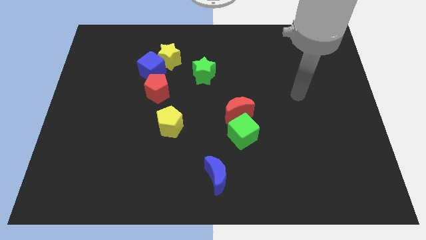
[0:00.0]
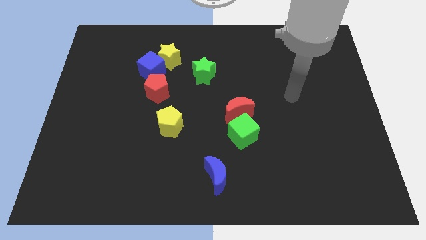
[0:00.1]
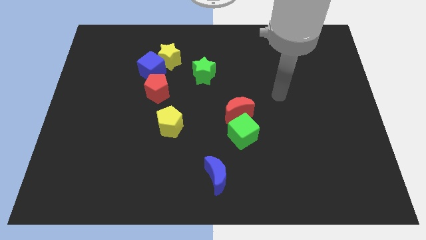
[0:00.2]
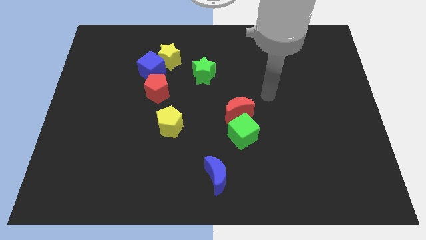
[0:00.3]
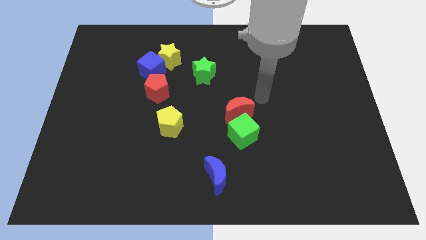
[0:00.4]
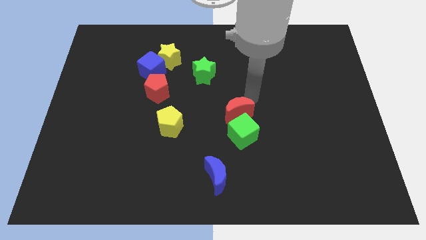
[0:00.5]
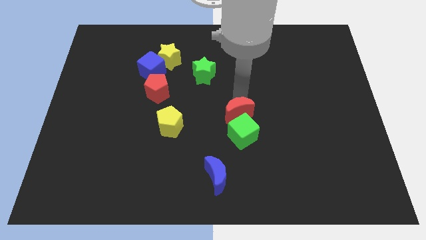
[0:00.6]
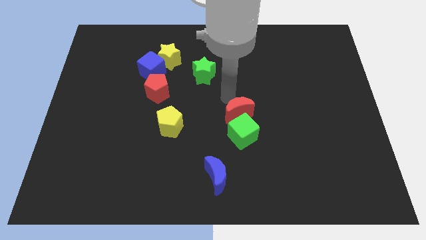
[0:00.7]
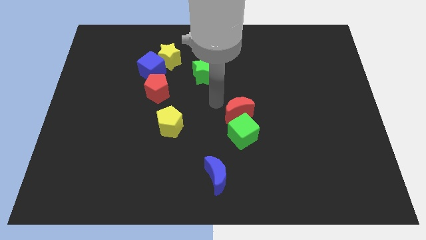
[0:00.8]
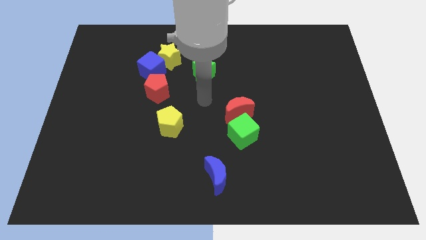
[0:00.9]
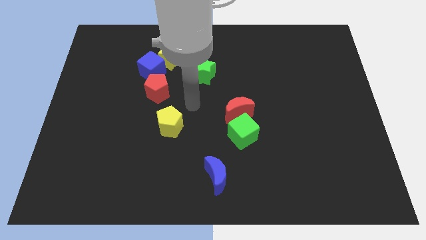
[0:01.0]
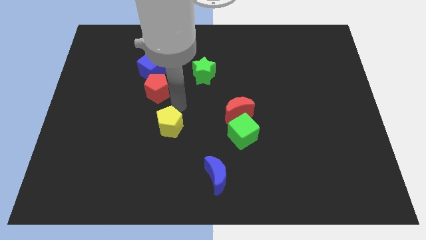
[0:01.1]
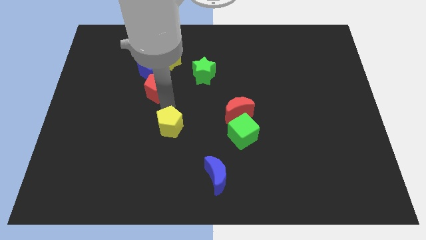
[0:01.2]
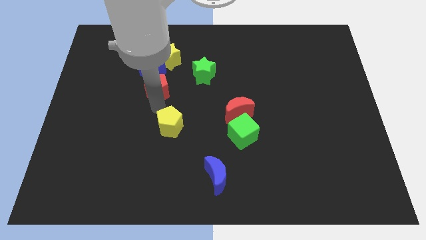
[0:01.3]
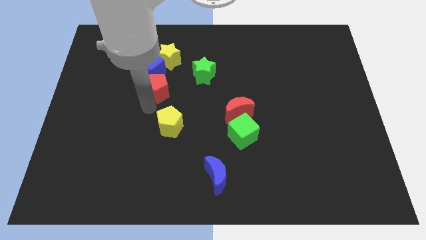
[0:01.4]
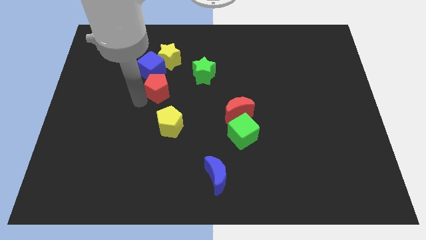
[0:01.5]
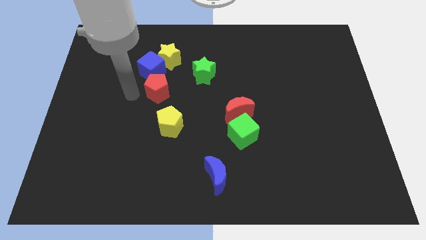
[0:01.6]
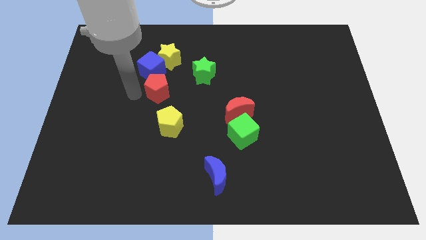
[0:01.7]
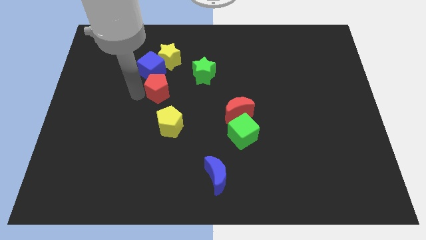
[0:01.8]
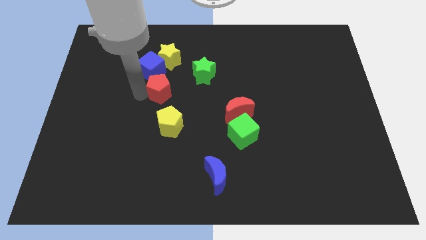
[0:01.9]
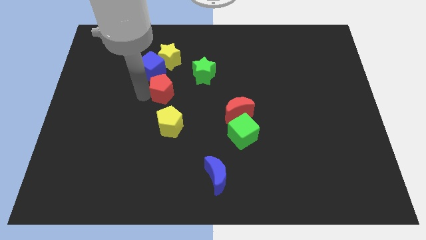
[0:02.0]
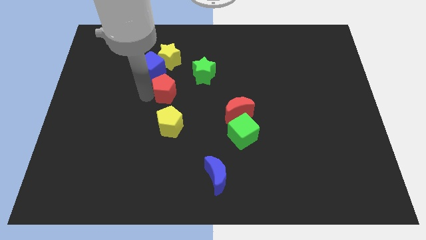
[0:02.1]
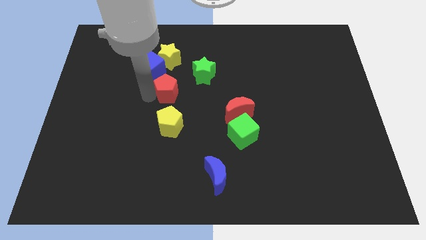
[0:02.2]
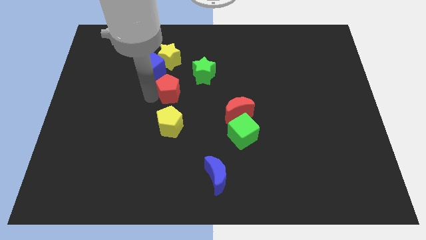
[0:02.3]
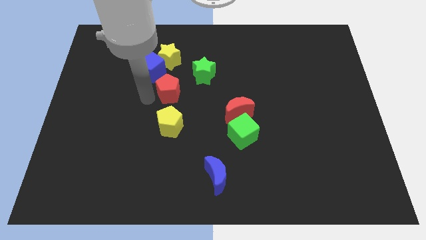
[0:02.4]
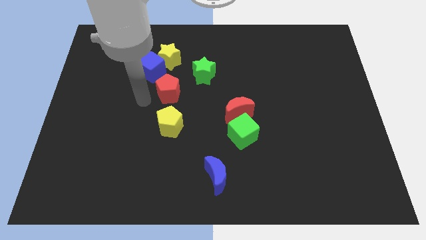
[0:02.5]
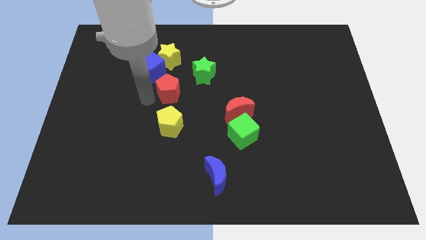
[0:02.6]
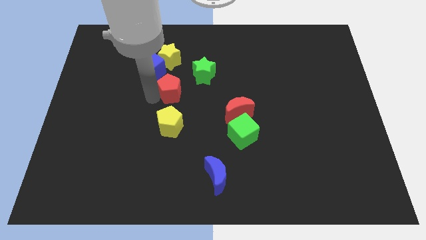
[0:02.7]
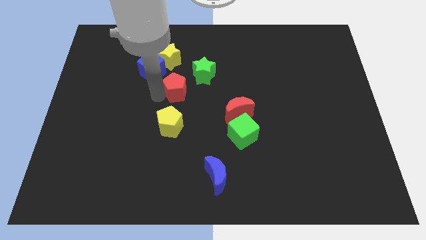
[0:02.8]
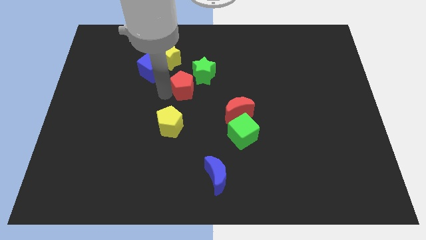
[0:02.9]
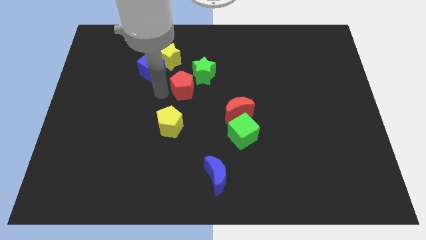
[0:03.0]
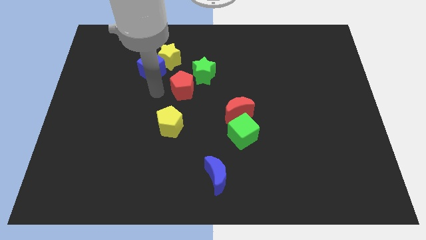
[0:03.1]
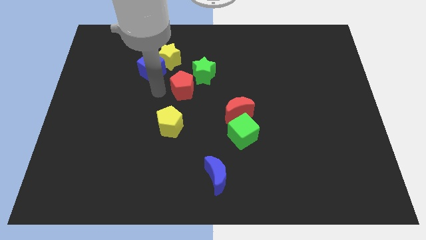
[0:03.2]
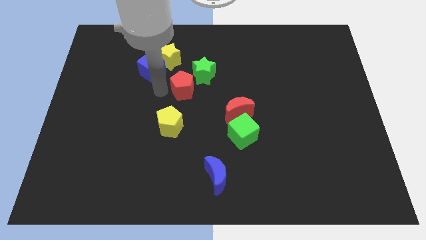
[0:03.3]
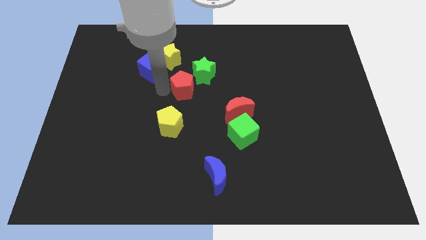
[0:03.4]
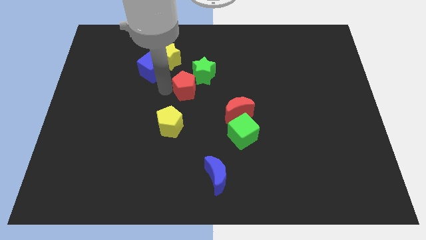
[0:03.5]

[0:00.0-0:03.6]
slightly slide the red pentagon right

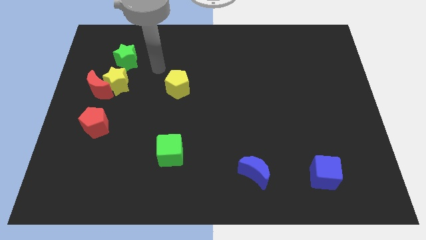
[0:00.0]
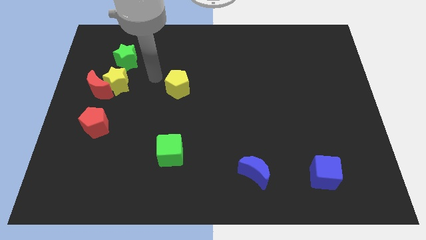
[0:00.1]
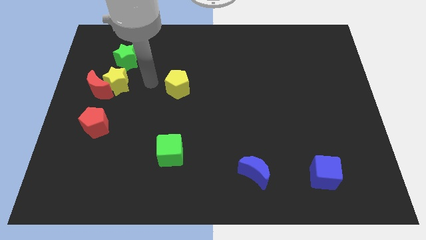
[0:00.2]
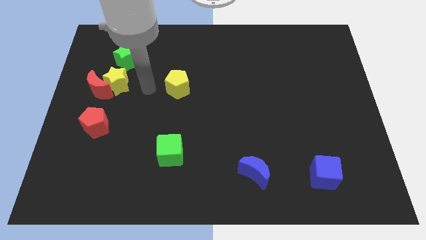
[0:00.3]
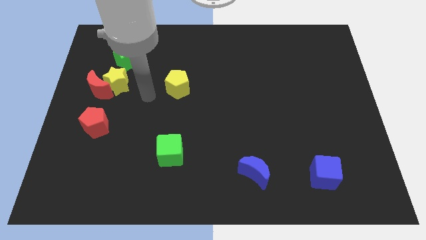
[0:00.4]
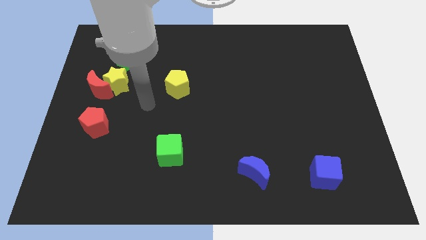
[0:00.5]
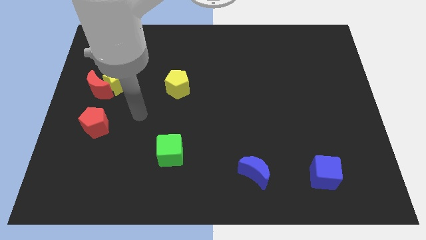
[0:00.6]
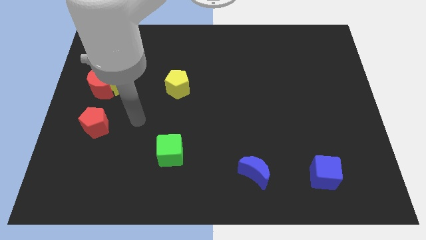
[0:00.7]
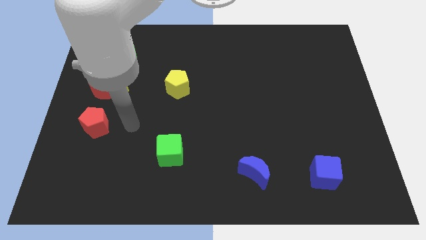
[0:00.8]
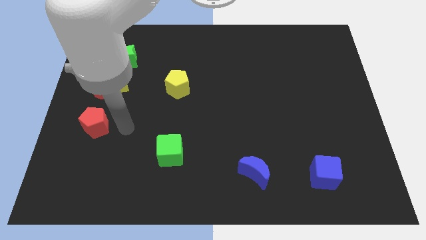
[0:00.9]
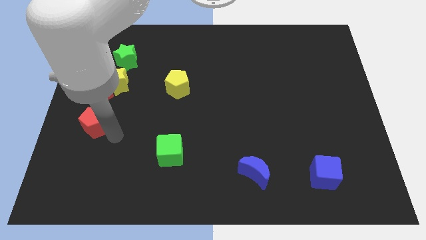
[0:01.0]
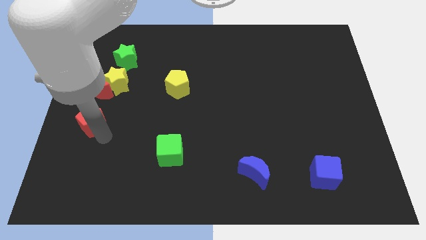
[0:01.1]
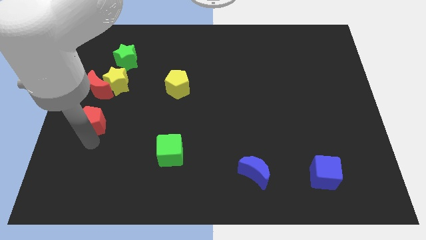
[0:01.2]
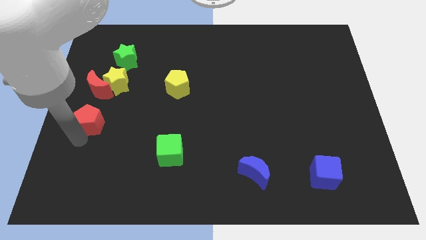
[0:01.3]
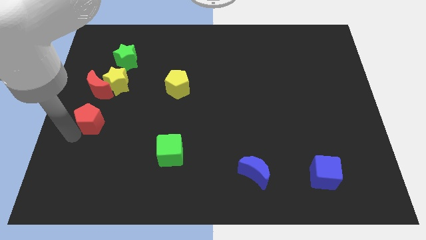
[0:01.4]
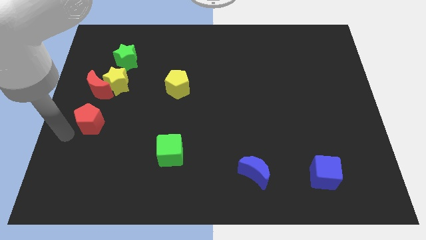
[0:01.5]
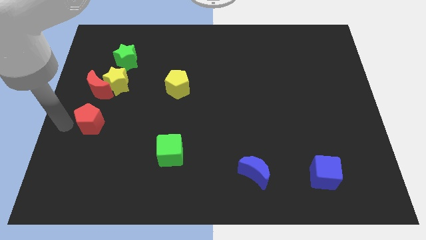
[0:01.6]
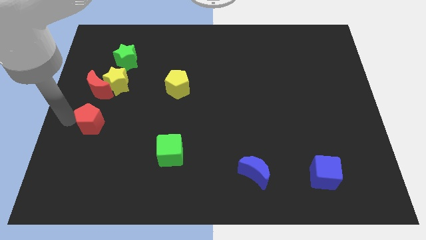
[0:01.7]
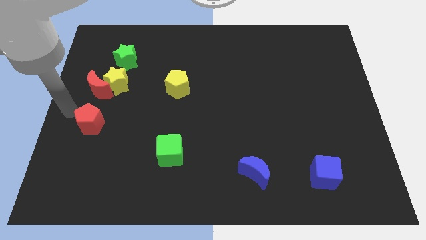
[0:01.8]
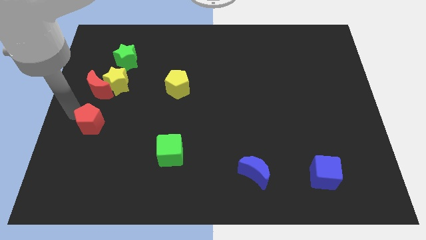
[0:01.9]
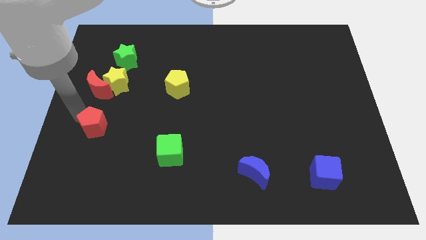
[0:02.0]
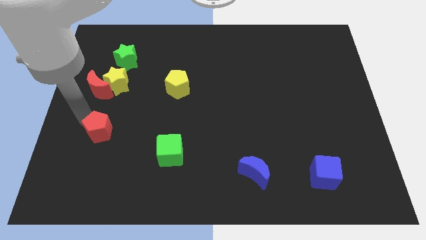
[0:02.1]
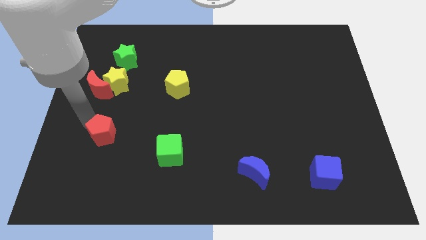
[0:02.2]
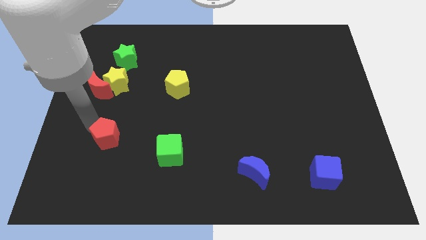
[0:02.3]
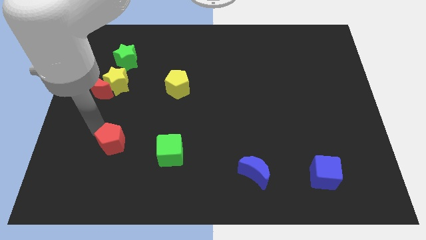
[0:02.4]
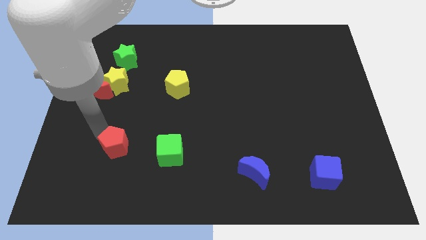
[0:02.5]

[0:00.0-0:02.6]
slide the red pentagon a bit down and then right

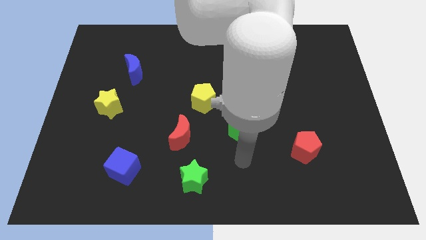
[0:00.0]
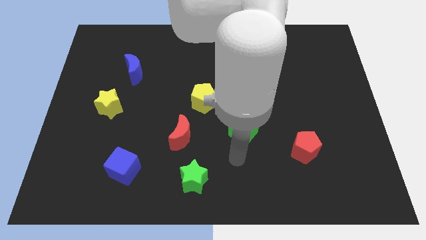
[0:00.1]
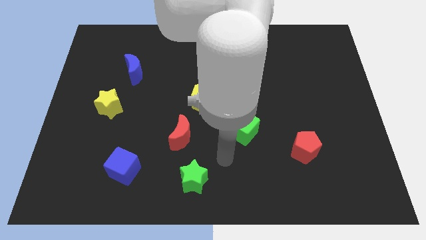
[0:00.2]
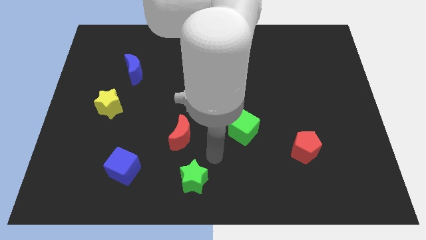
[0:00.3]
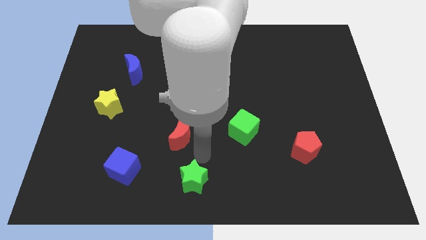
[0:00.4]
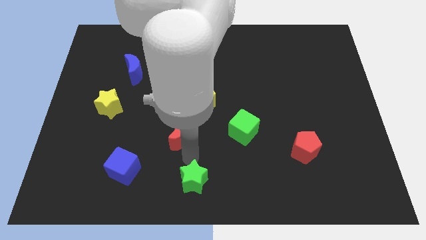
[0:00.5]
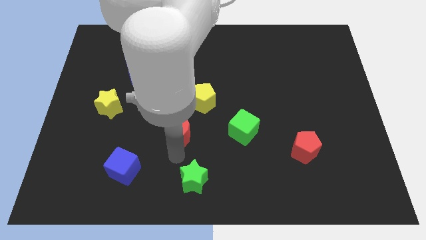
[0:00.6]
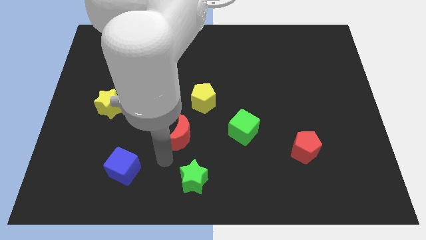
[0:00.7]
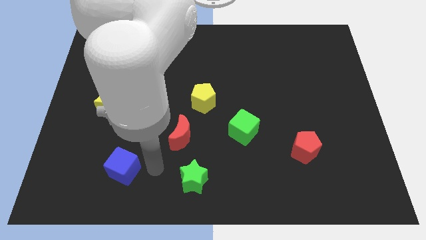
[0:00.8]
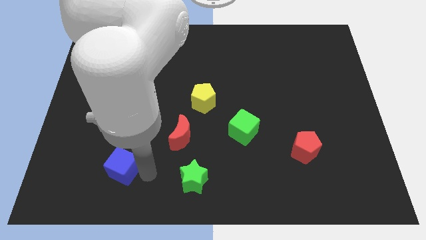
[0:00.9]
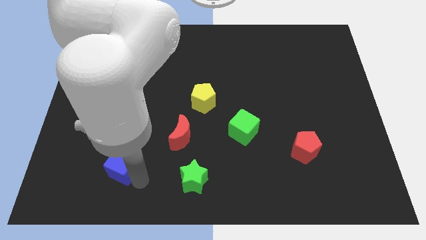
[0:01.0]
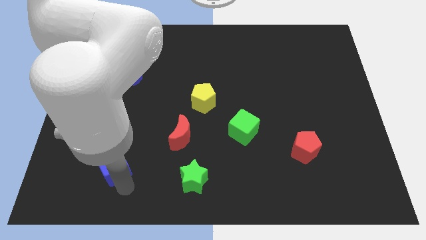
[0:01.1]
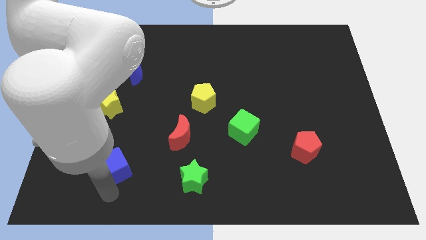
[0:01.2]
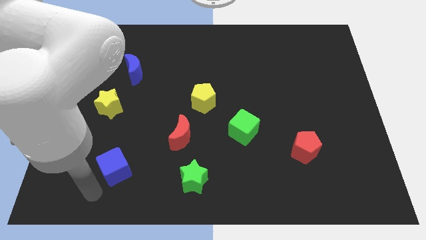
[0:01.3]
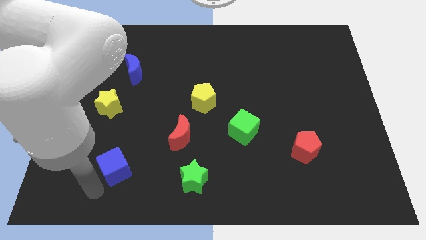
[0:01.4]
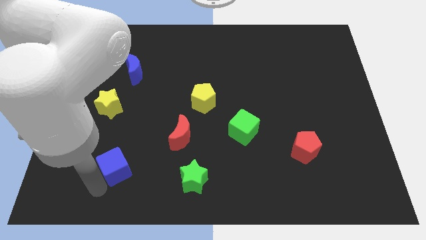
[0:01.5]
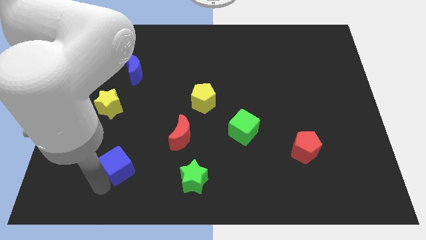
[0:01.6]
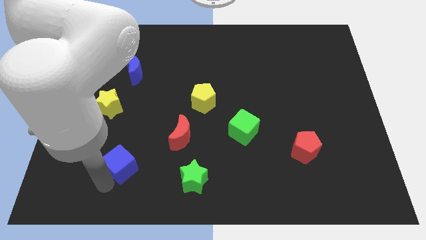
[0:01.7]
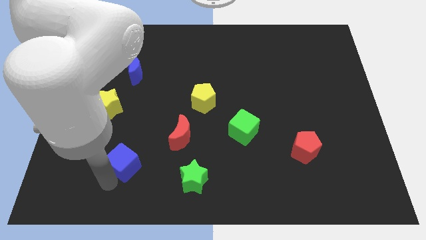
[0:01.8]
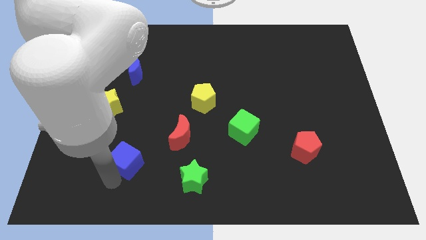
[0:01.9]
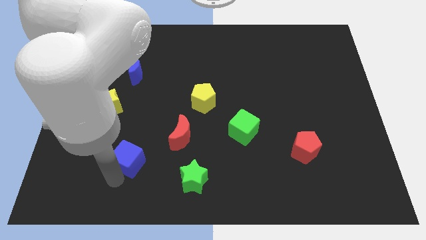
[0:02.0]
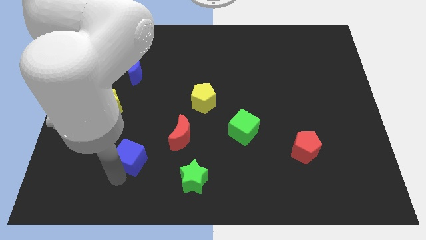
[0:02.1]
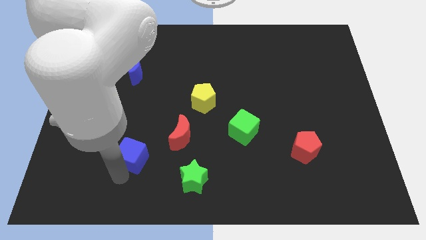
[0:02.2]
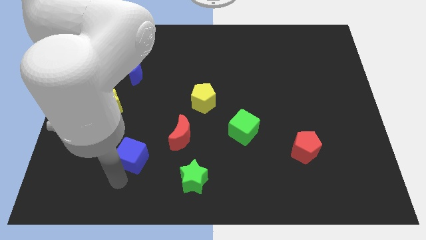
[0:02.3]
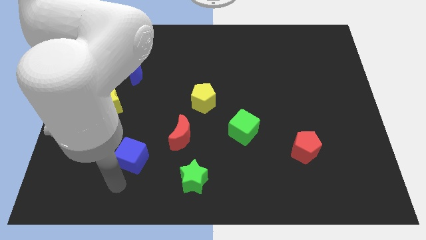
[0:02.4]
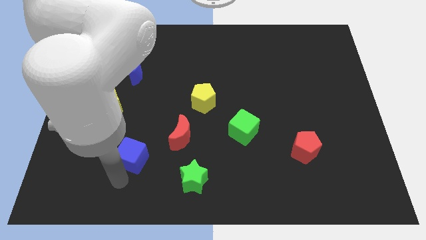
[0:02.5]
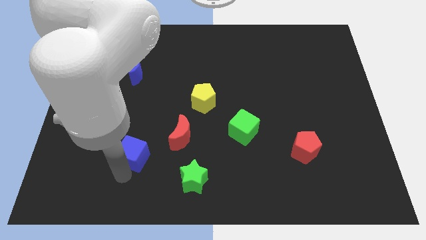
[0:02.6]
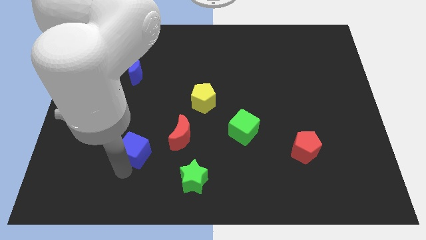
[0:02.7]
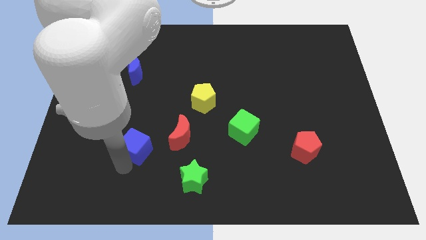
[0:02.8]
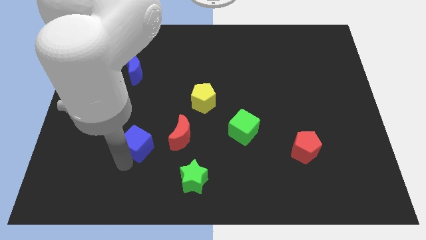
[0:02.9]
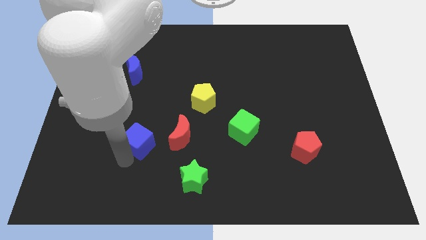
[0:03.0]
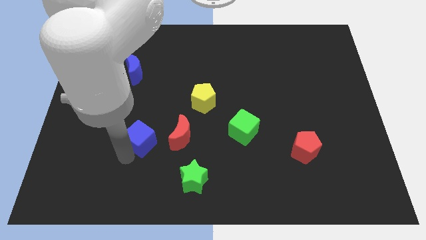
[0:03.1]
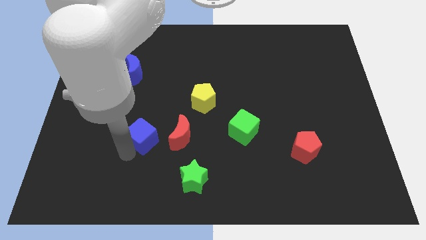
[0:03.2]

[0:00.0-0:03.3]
slide the blue cube a little up and then to the right
